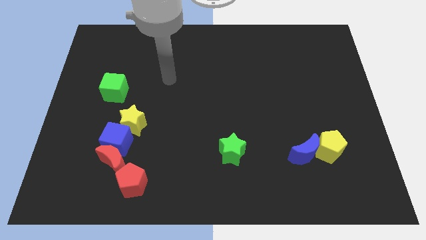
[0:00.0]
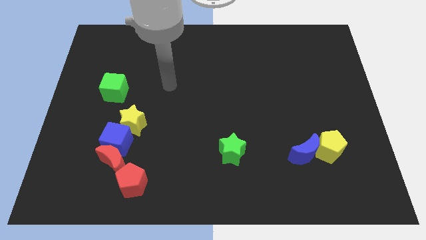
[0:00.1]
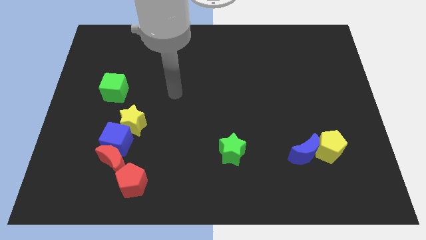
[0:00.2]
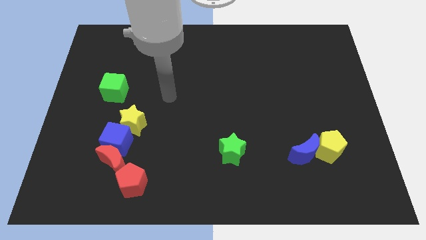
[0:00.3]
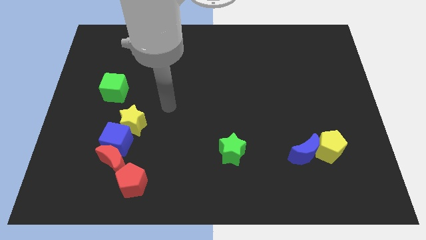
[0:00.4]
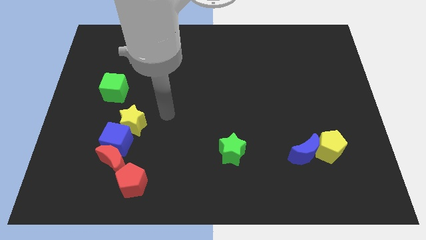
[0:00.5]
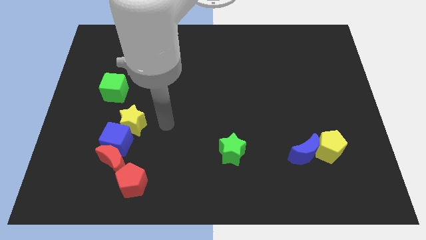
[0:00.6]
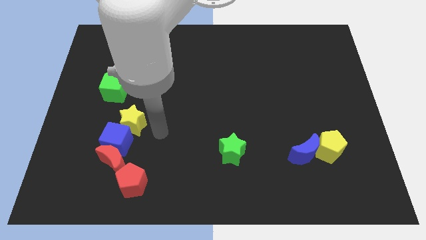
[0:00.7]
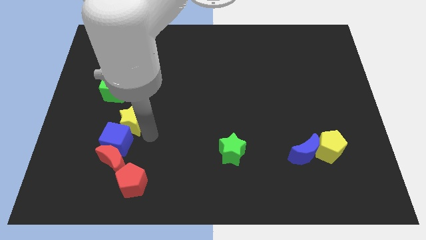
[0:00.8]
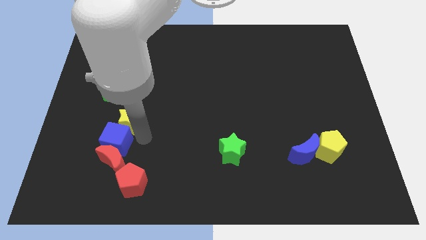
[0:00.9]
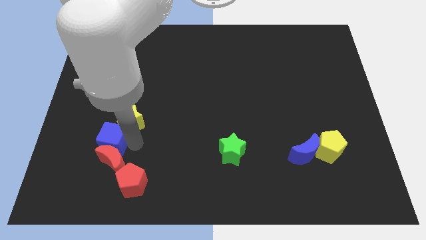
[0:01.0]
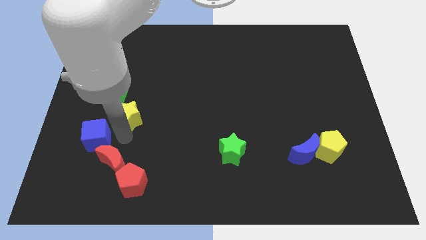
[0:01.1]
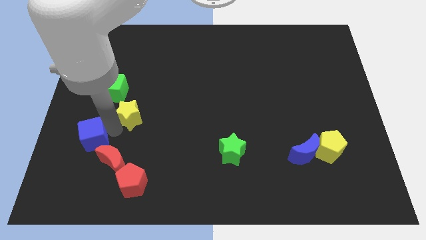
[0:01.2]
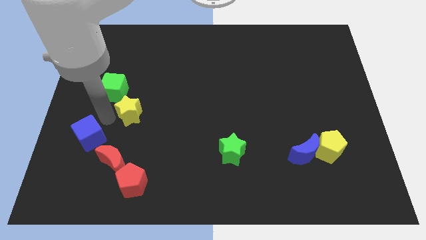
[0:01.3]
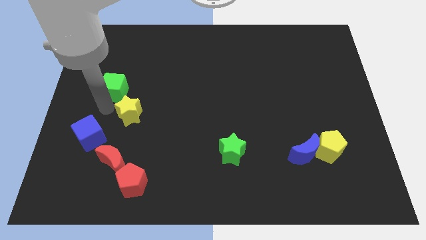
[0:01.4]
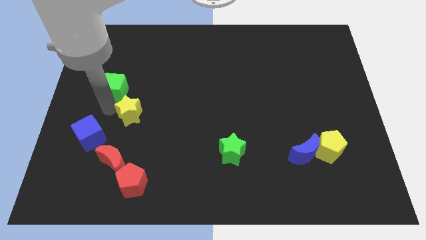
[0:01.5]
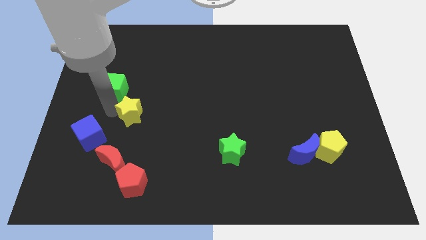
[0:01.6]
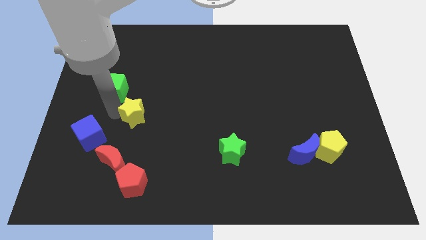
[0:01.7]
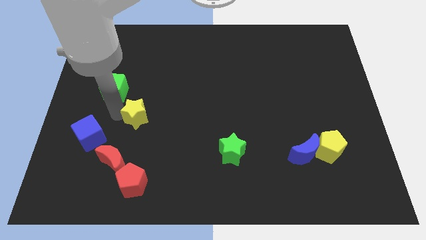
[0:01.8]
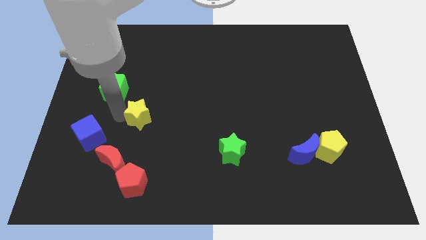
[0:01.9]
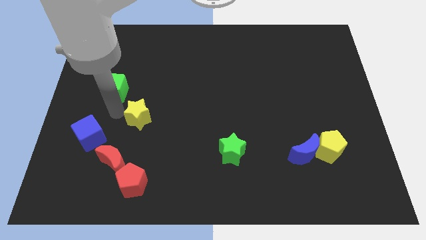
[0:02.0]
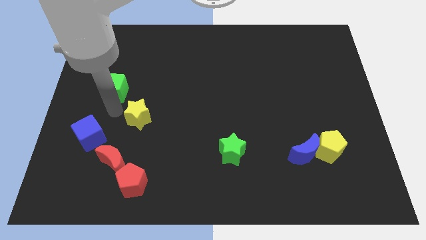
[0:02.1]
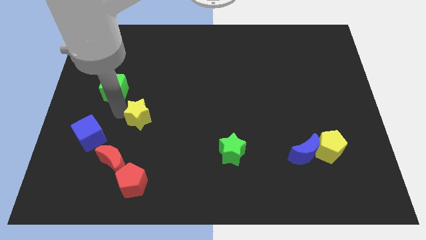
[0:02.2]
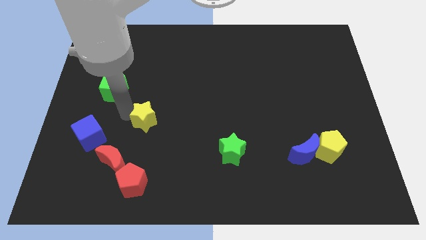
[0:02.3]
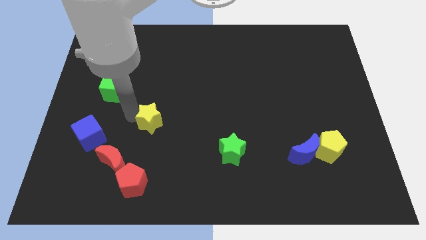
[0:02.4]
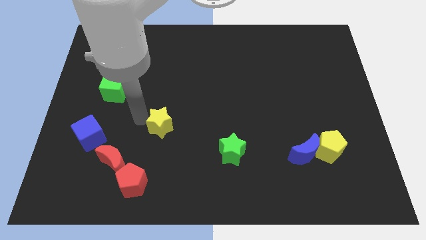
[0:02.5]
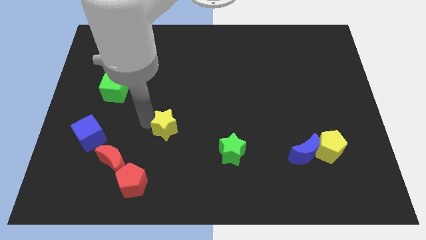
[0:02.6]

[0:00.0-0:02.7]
slightly move the yellow star to the right

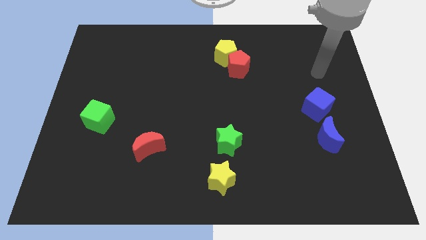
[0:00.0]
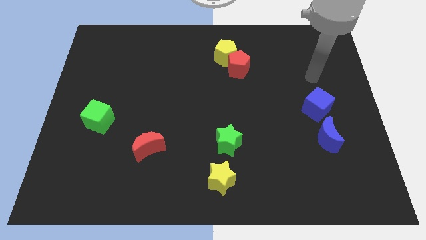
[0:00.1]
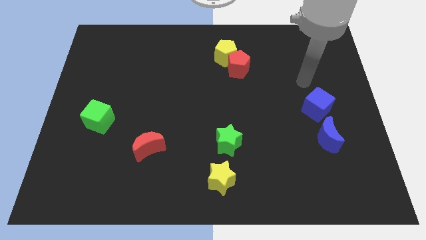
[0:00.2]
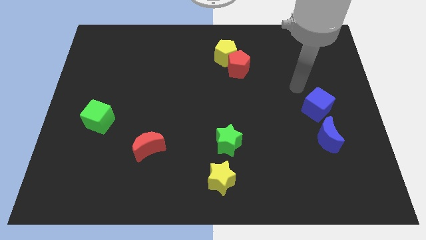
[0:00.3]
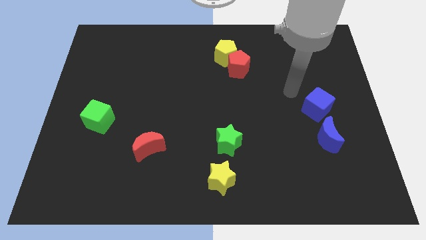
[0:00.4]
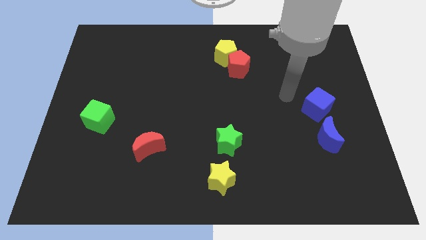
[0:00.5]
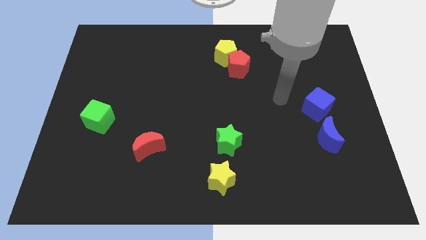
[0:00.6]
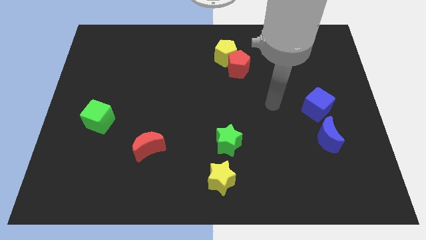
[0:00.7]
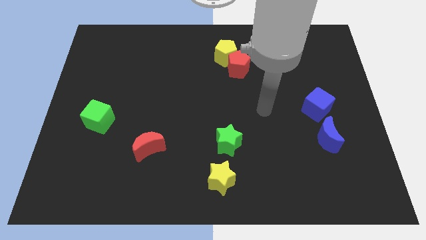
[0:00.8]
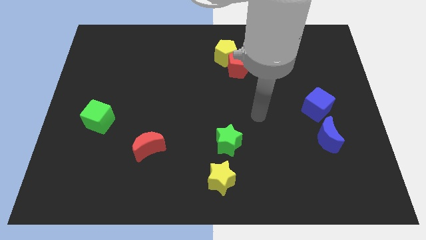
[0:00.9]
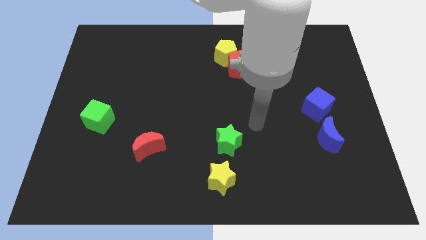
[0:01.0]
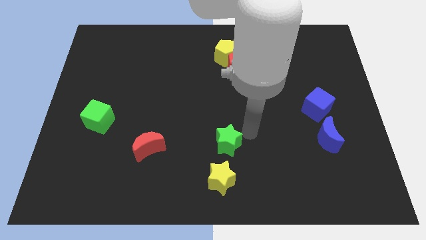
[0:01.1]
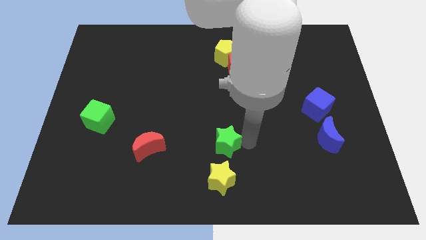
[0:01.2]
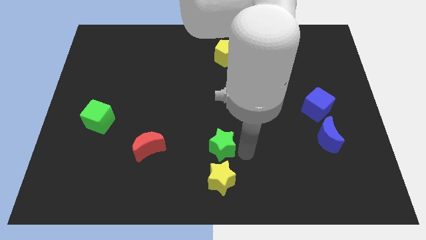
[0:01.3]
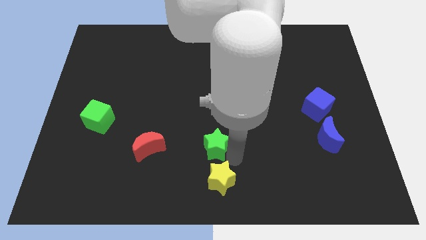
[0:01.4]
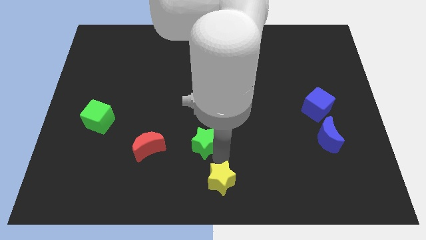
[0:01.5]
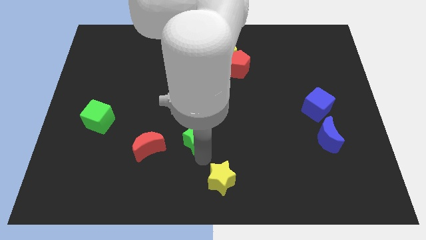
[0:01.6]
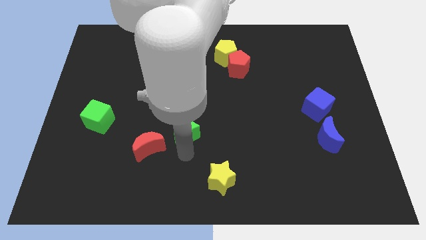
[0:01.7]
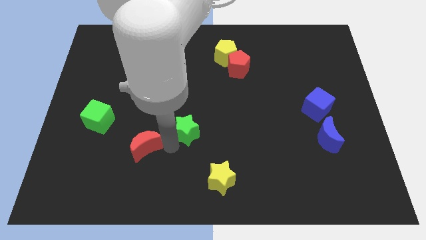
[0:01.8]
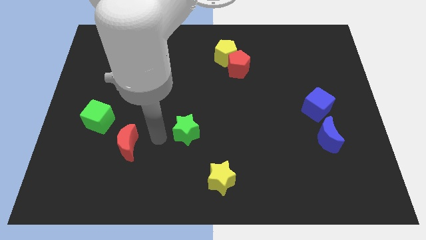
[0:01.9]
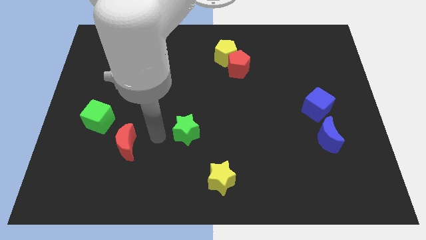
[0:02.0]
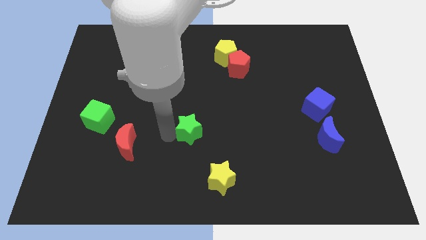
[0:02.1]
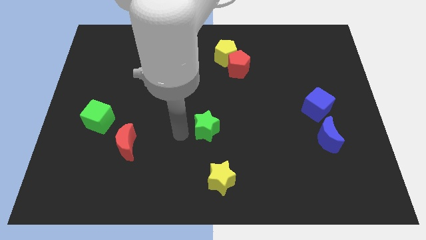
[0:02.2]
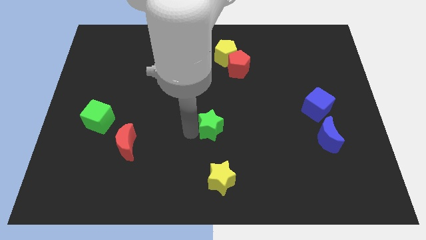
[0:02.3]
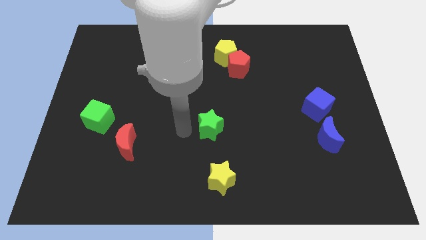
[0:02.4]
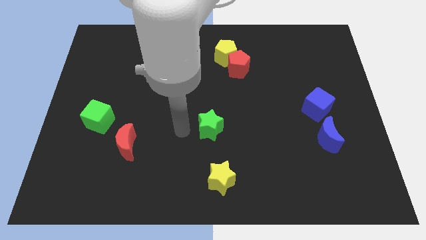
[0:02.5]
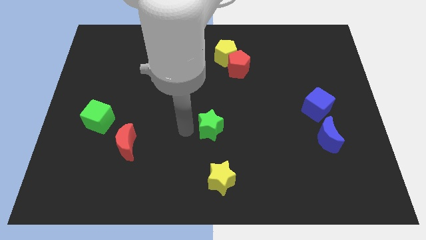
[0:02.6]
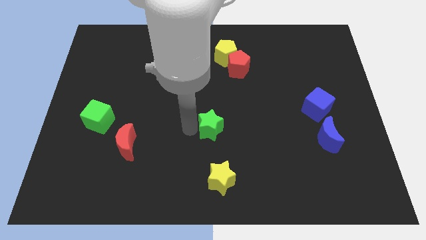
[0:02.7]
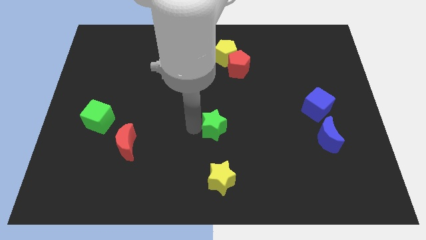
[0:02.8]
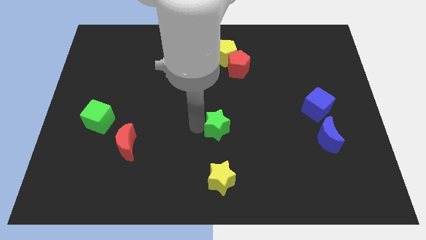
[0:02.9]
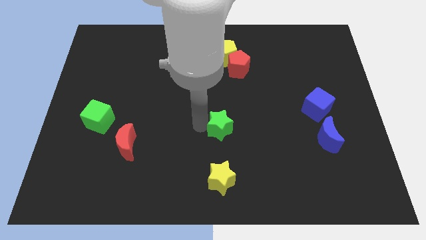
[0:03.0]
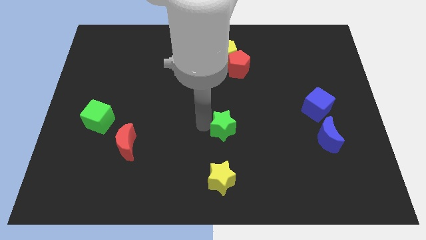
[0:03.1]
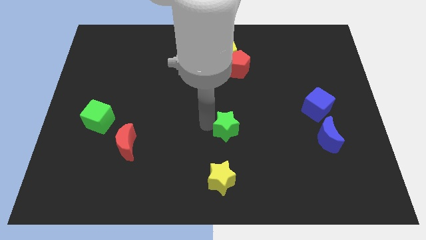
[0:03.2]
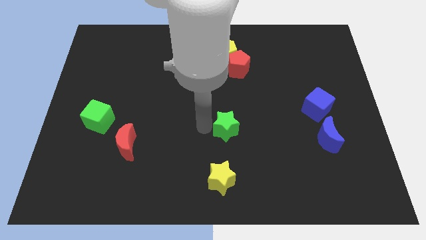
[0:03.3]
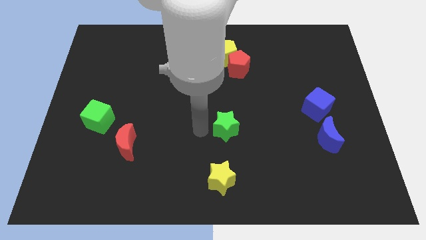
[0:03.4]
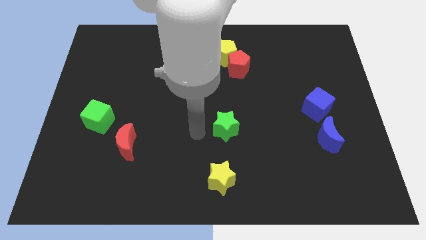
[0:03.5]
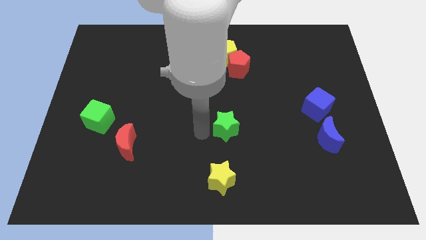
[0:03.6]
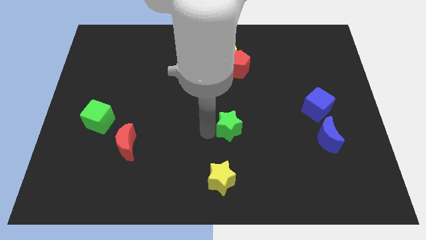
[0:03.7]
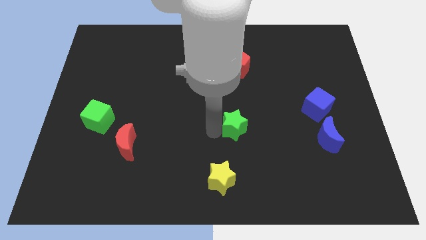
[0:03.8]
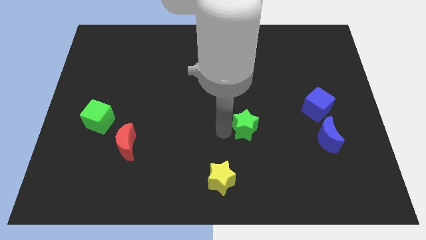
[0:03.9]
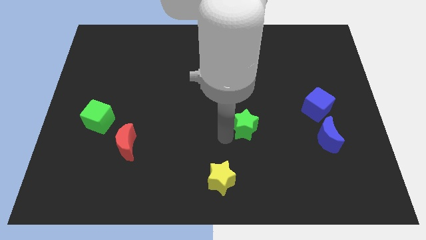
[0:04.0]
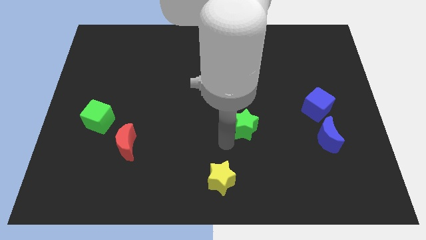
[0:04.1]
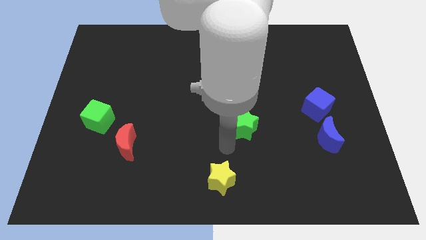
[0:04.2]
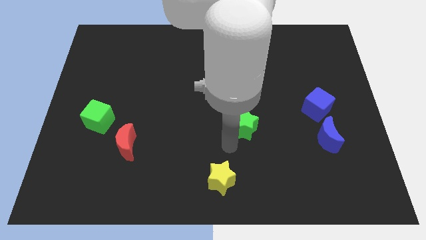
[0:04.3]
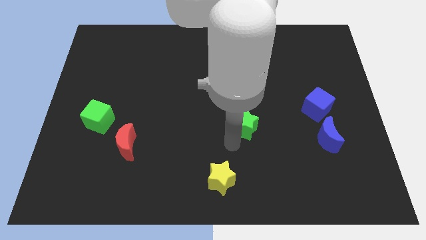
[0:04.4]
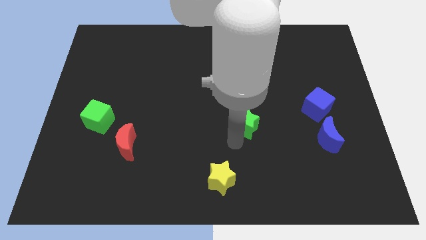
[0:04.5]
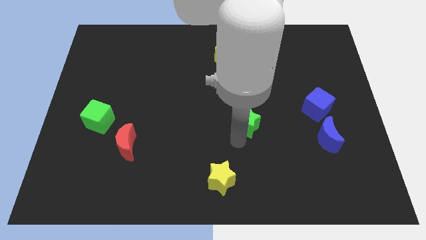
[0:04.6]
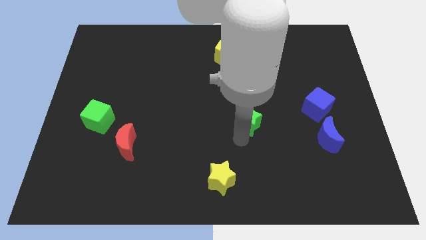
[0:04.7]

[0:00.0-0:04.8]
slide the green star a little bit diagonally up and right

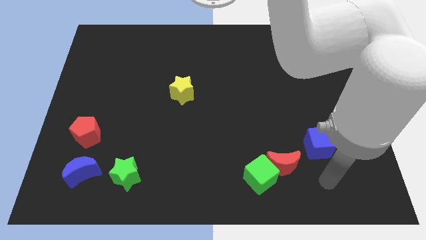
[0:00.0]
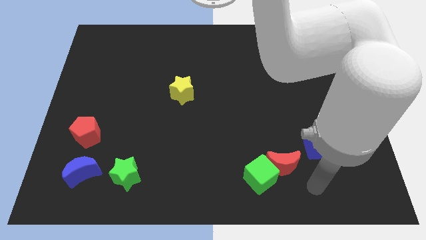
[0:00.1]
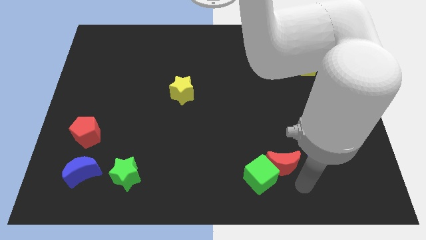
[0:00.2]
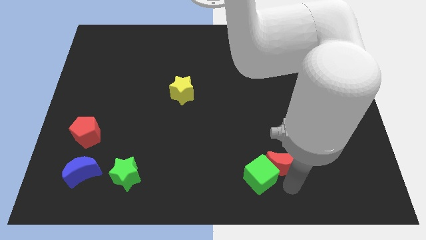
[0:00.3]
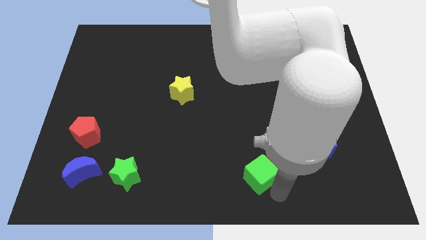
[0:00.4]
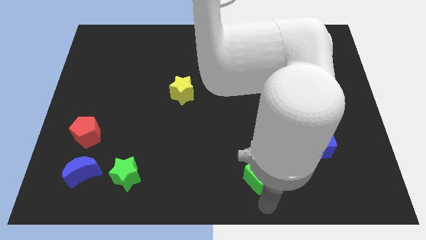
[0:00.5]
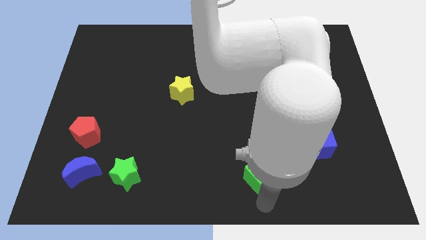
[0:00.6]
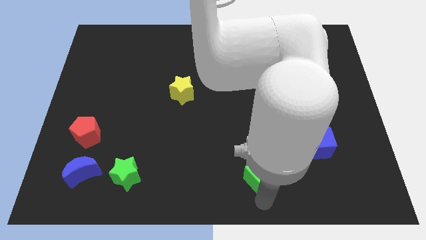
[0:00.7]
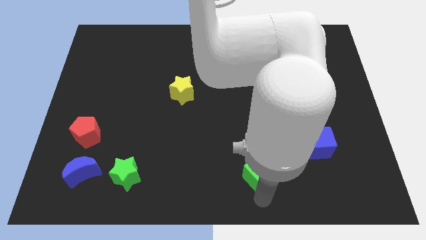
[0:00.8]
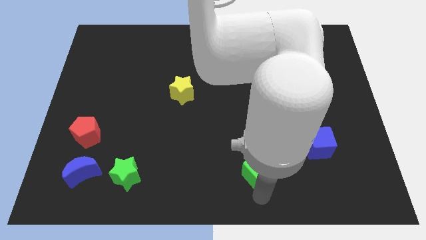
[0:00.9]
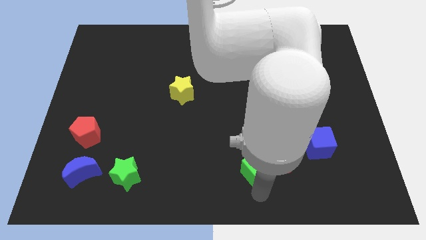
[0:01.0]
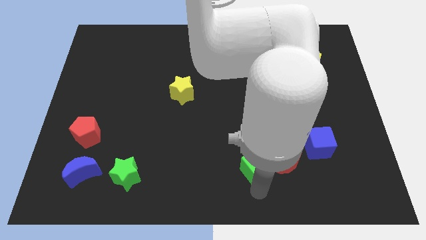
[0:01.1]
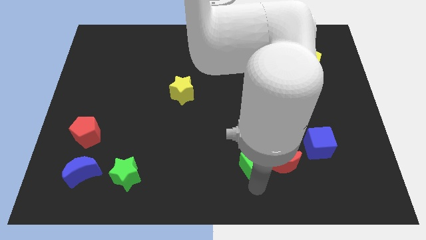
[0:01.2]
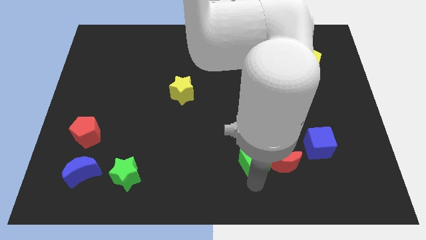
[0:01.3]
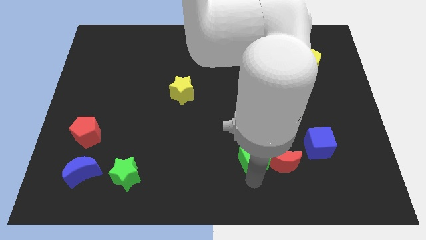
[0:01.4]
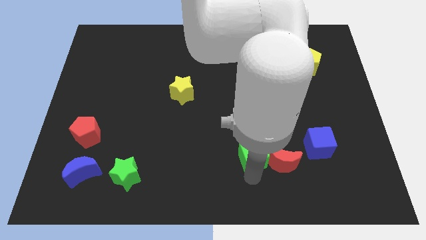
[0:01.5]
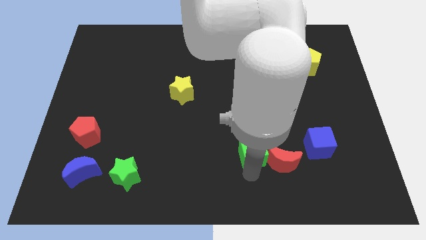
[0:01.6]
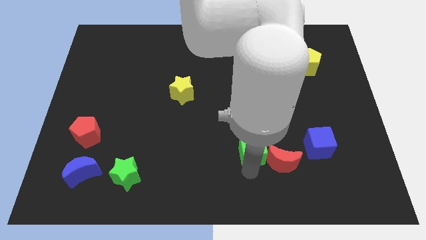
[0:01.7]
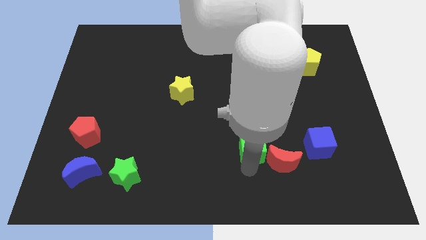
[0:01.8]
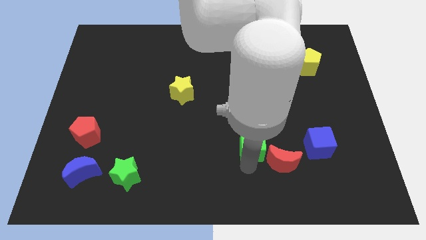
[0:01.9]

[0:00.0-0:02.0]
move the green cube somewhat up
